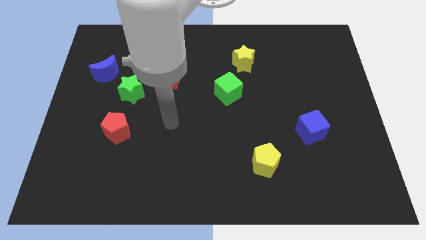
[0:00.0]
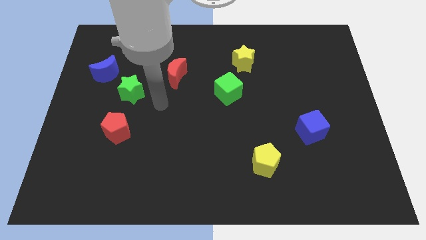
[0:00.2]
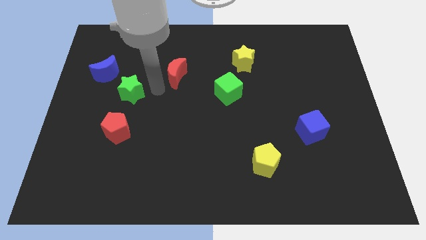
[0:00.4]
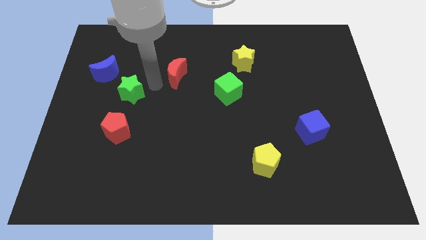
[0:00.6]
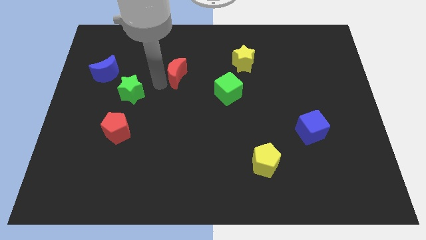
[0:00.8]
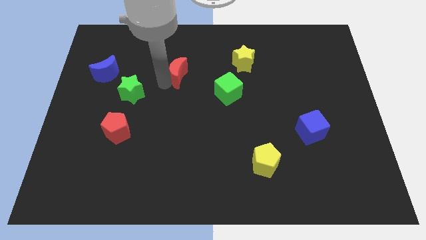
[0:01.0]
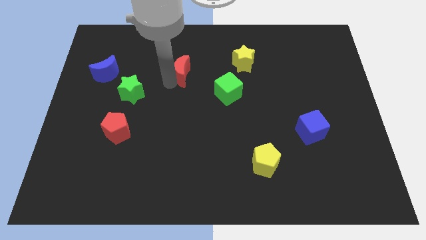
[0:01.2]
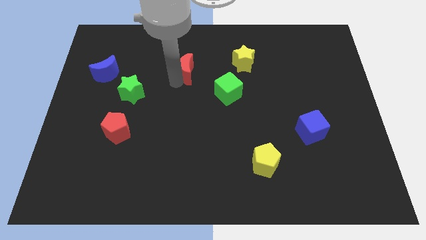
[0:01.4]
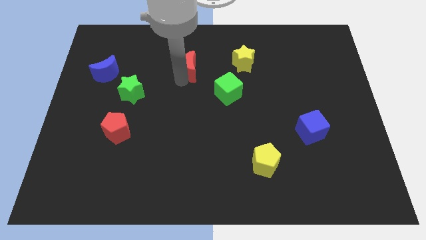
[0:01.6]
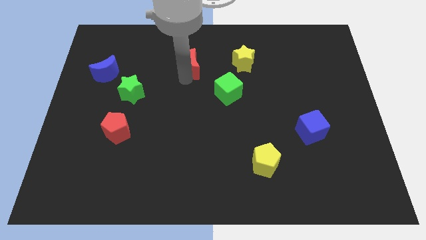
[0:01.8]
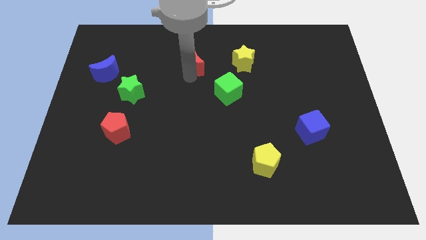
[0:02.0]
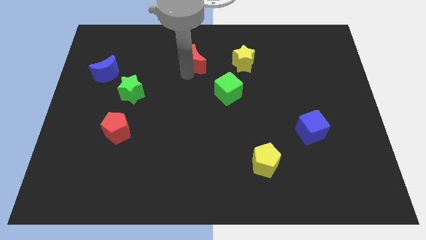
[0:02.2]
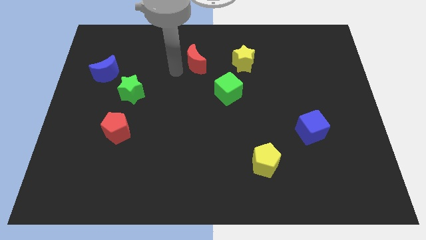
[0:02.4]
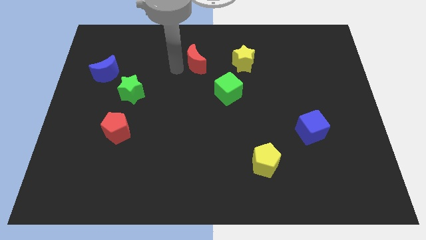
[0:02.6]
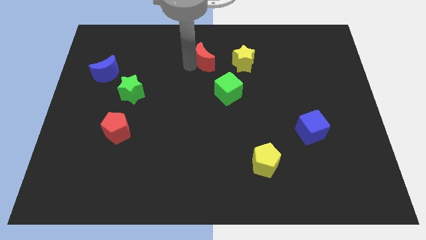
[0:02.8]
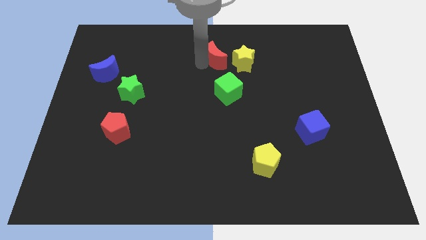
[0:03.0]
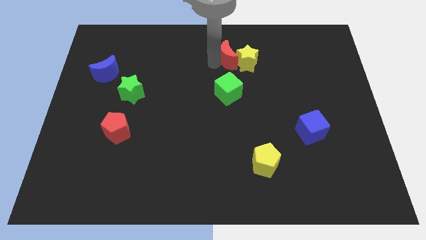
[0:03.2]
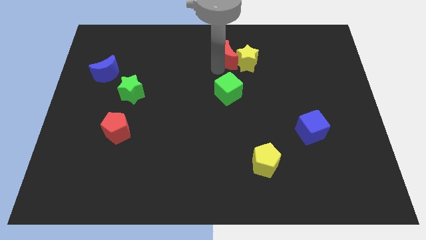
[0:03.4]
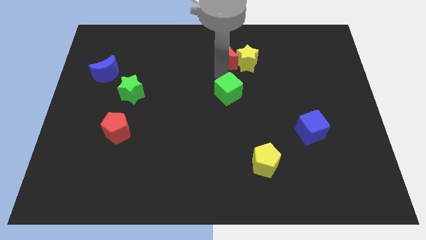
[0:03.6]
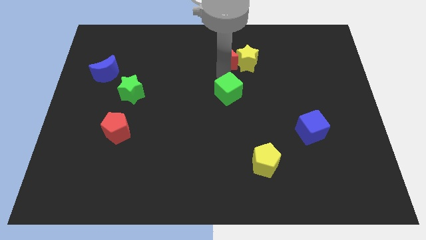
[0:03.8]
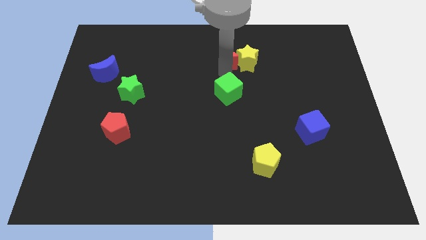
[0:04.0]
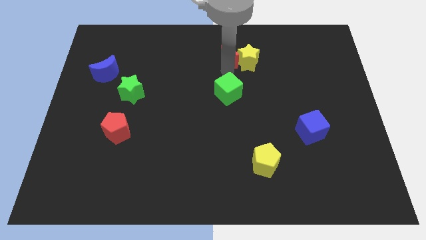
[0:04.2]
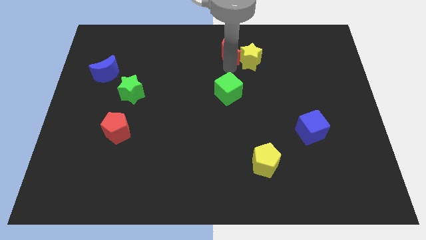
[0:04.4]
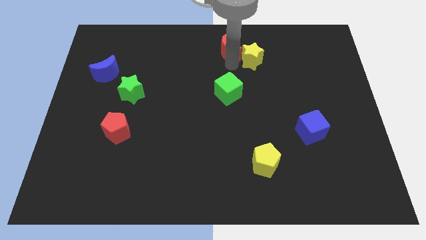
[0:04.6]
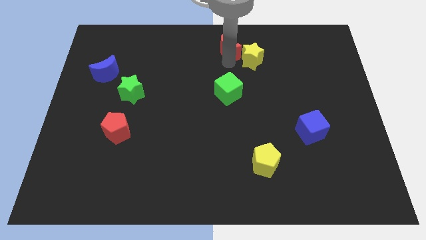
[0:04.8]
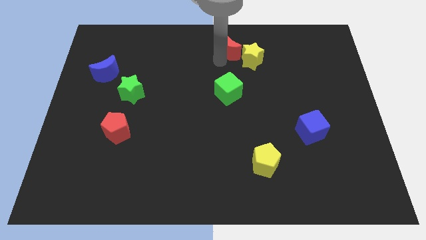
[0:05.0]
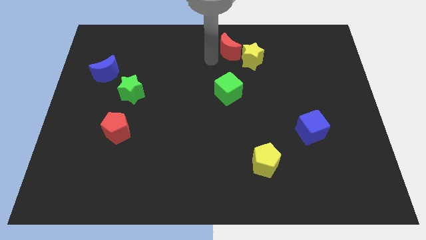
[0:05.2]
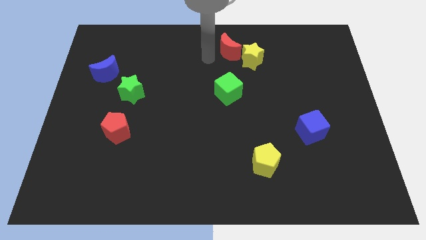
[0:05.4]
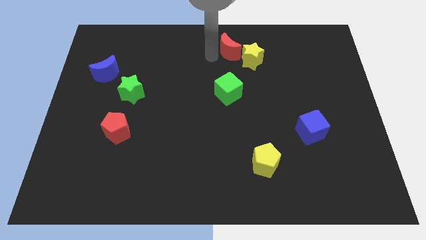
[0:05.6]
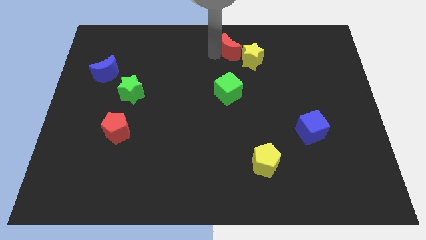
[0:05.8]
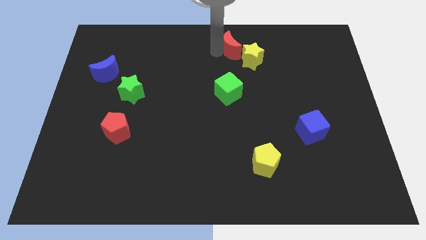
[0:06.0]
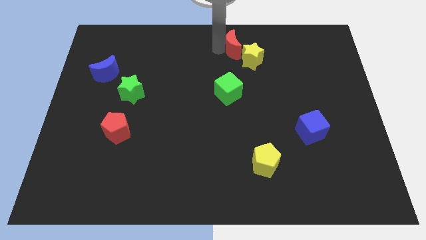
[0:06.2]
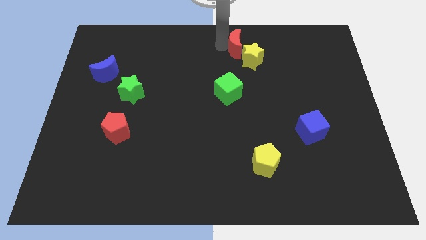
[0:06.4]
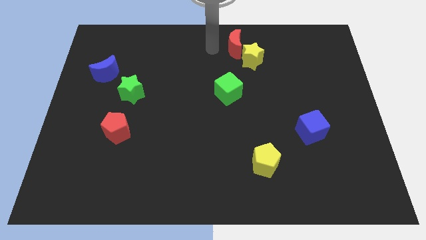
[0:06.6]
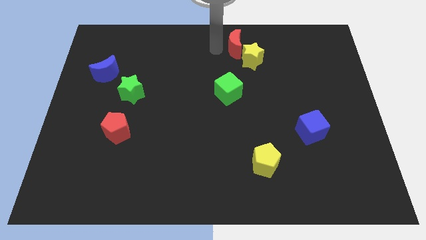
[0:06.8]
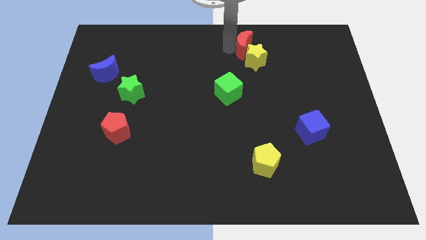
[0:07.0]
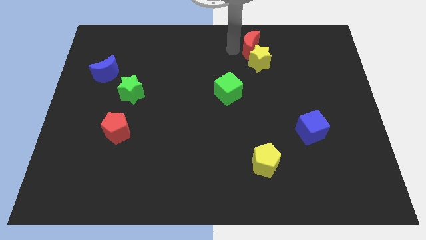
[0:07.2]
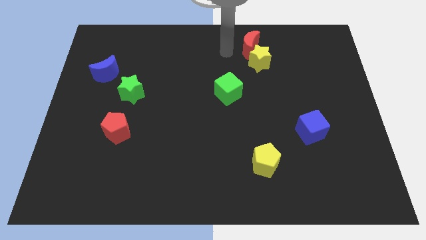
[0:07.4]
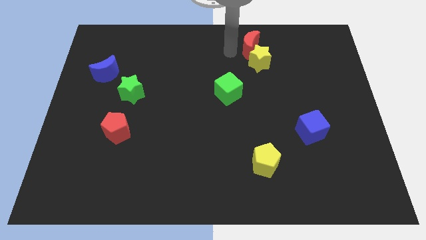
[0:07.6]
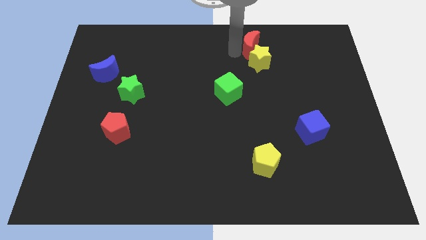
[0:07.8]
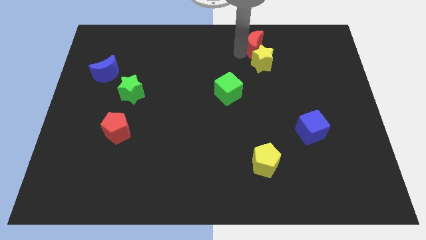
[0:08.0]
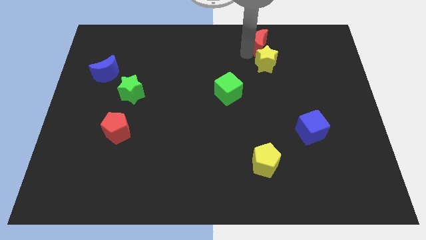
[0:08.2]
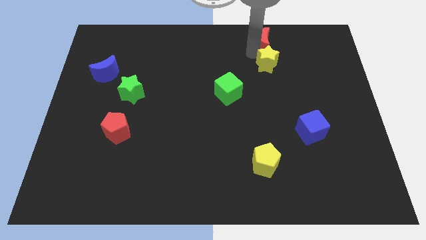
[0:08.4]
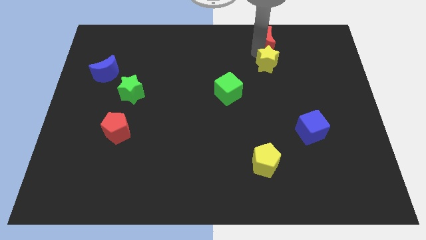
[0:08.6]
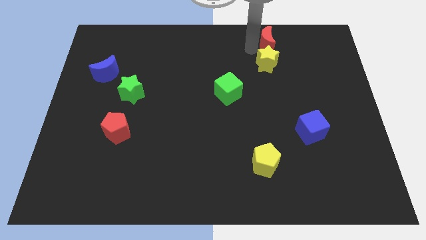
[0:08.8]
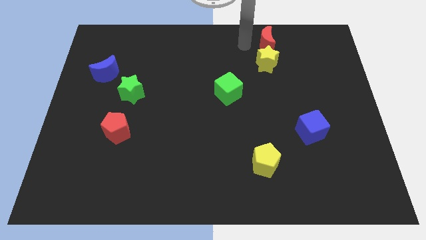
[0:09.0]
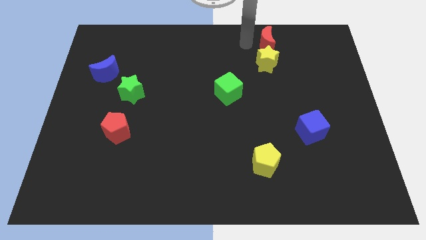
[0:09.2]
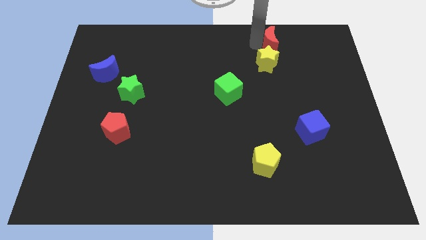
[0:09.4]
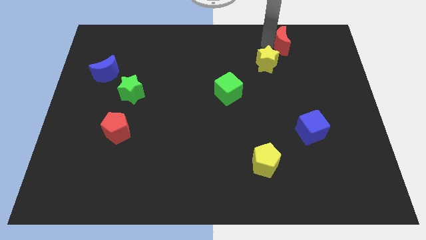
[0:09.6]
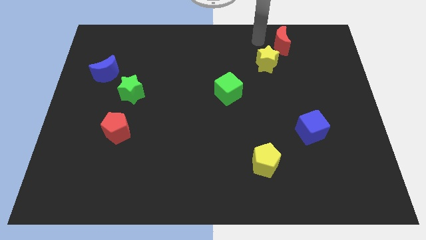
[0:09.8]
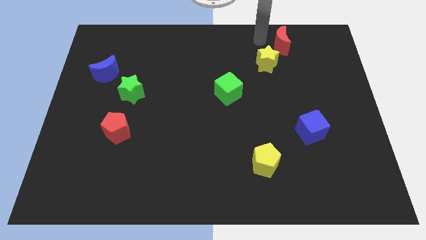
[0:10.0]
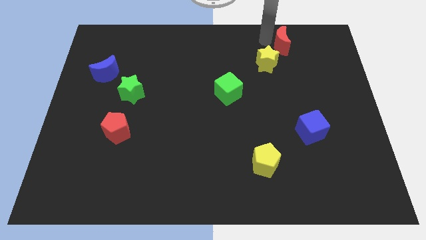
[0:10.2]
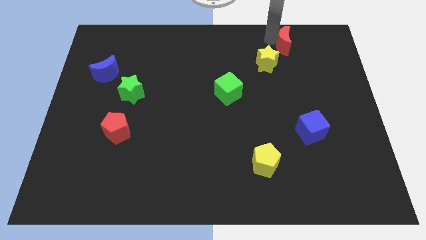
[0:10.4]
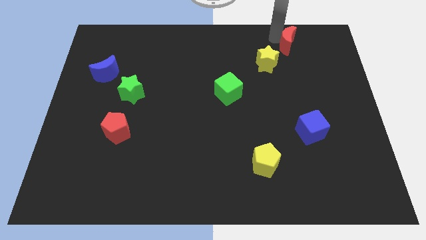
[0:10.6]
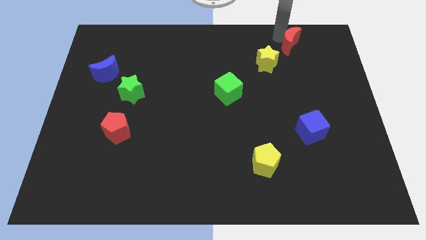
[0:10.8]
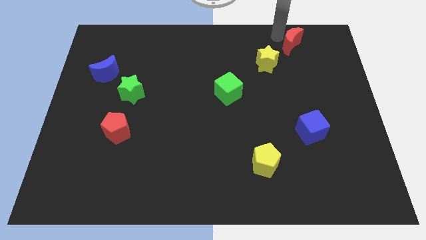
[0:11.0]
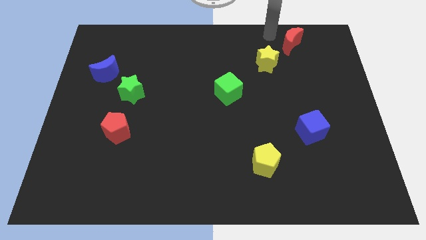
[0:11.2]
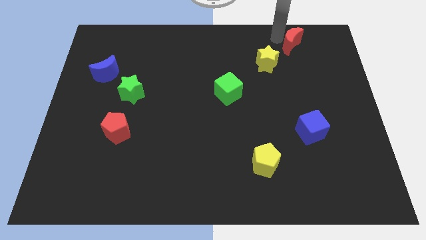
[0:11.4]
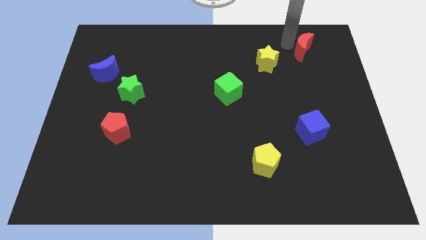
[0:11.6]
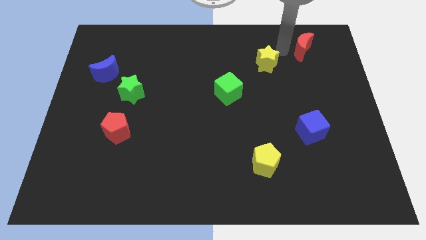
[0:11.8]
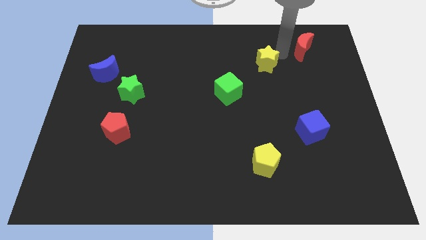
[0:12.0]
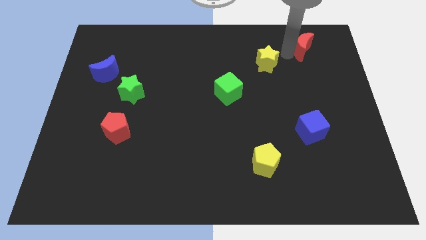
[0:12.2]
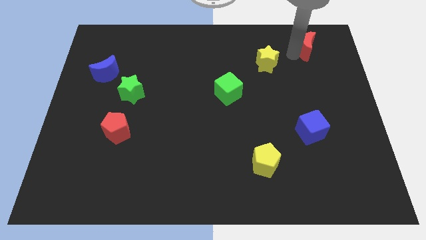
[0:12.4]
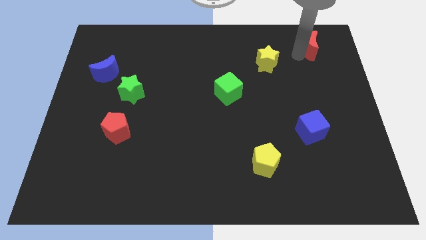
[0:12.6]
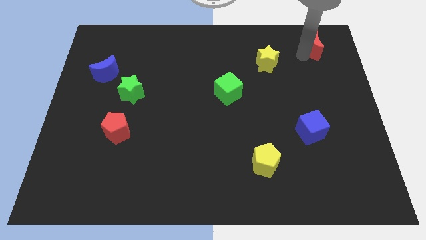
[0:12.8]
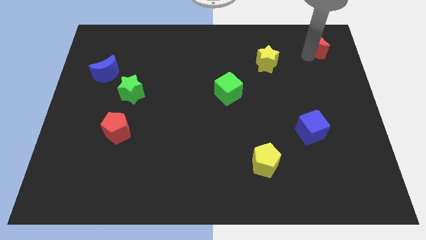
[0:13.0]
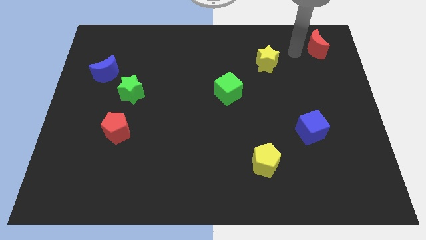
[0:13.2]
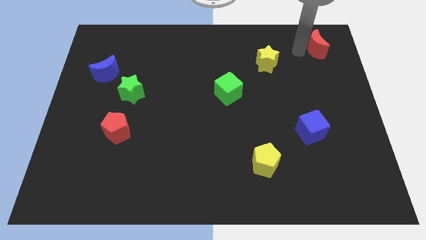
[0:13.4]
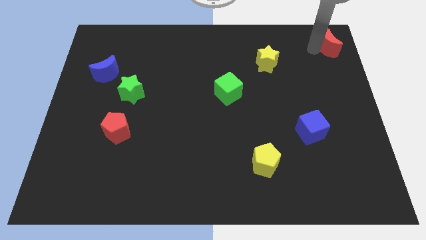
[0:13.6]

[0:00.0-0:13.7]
move the red moon to the upper right corner
